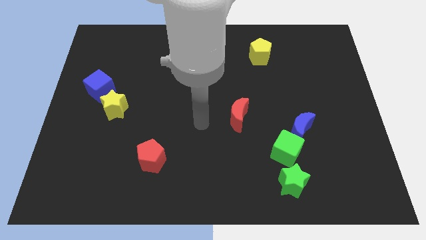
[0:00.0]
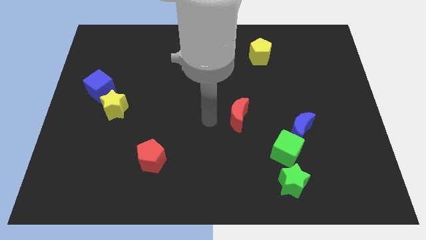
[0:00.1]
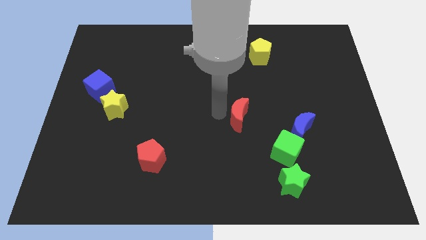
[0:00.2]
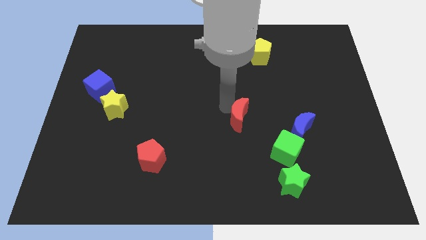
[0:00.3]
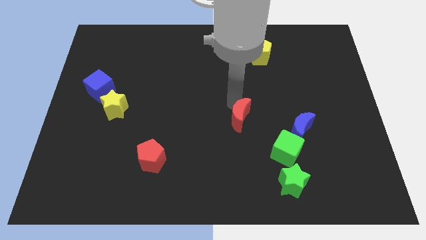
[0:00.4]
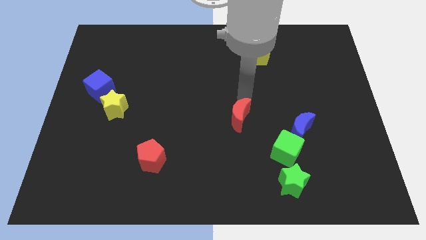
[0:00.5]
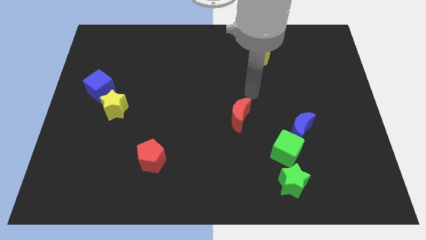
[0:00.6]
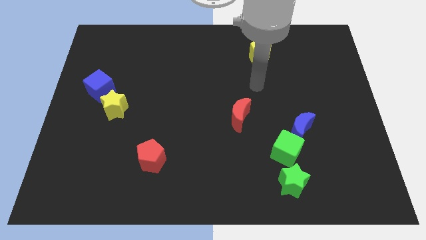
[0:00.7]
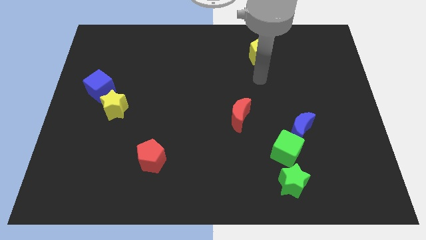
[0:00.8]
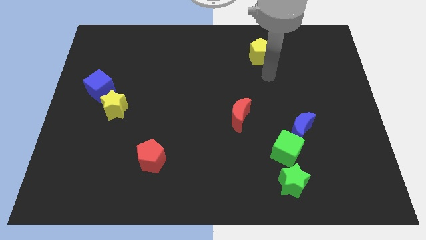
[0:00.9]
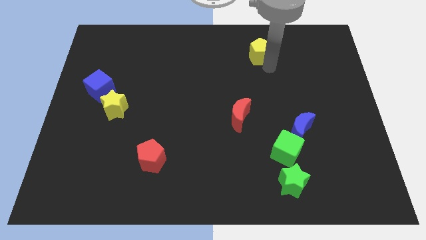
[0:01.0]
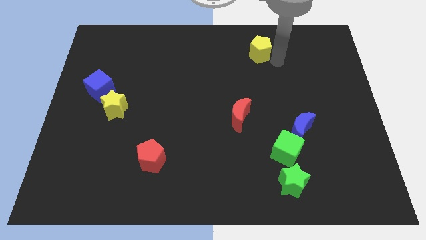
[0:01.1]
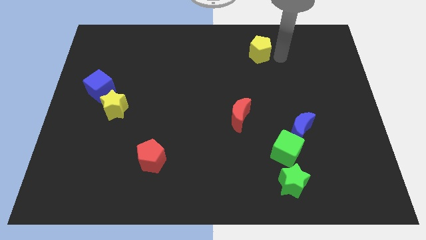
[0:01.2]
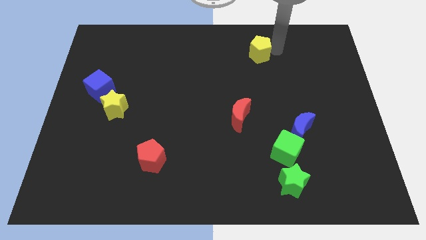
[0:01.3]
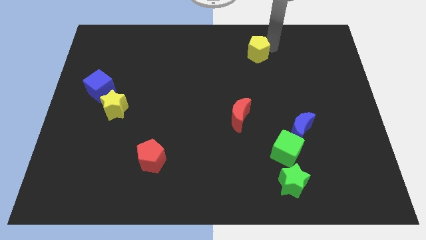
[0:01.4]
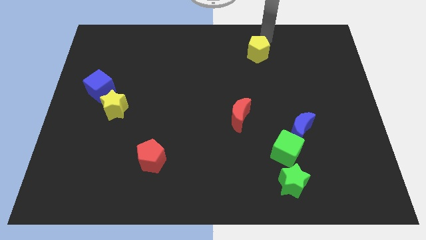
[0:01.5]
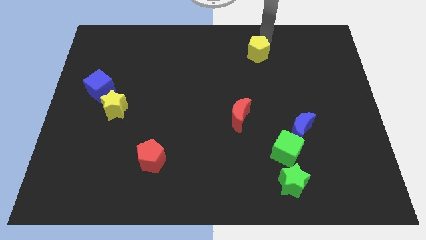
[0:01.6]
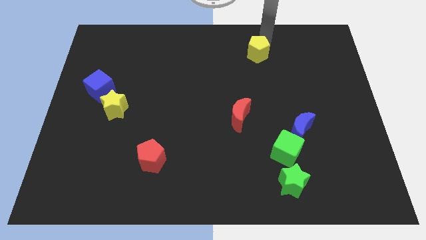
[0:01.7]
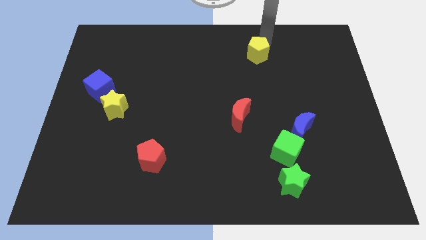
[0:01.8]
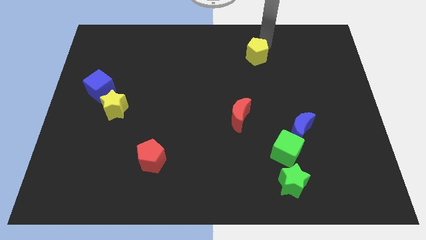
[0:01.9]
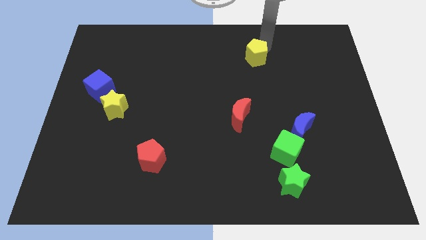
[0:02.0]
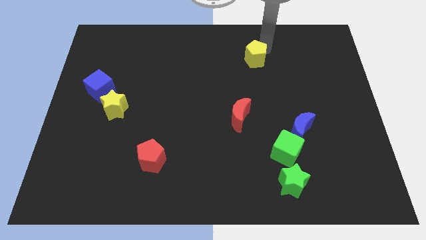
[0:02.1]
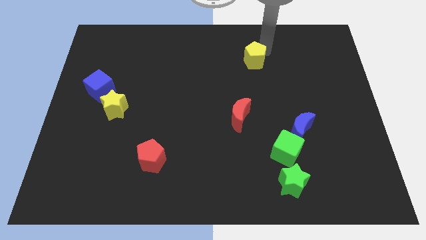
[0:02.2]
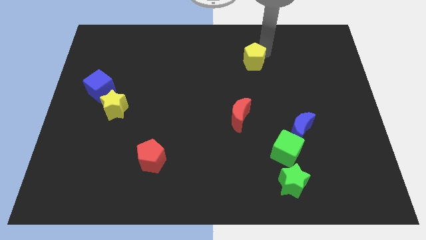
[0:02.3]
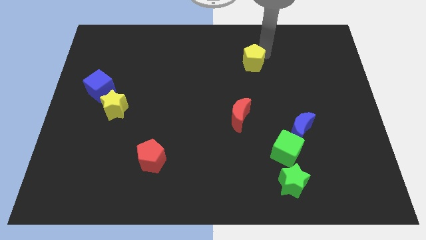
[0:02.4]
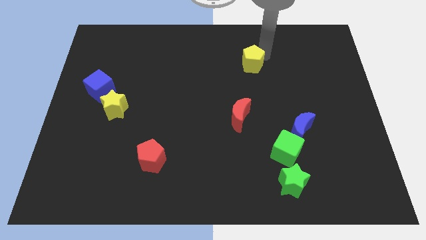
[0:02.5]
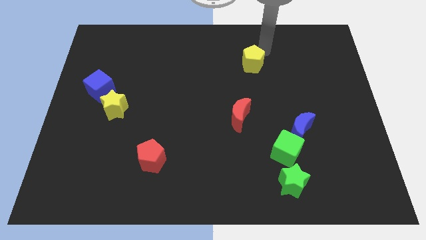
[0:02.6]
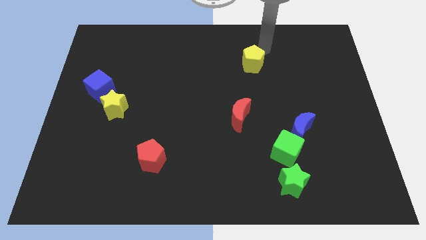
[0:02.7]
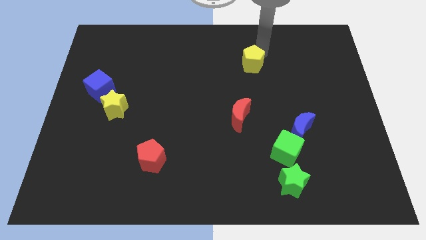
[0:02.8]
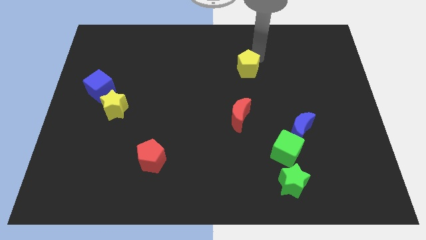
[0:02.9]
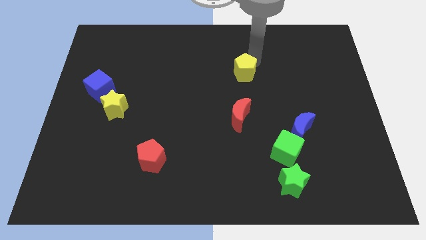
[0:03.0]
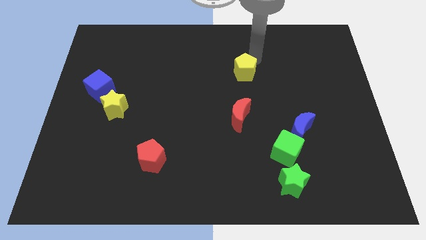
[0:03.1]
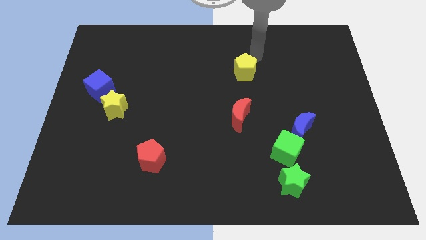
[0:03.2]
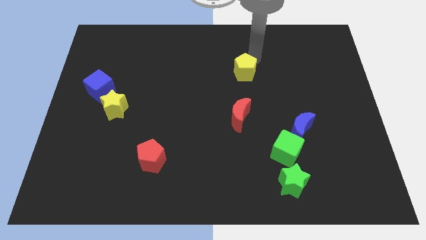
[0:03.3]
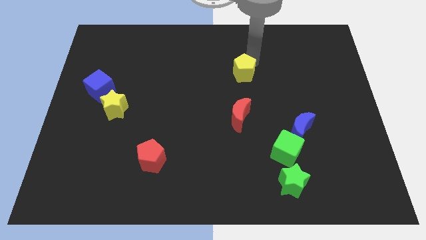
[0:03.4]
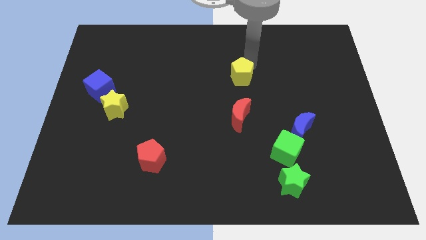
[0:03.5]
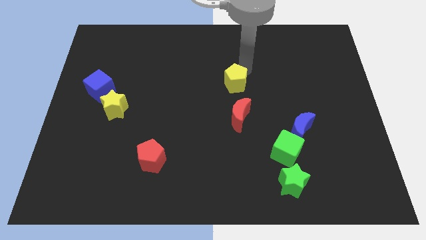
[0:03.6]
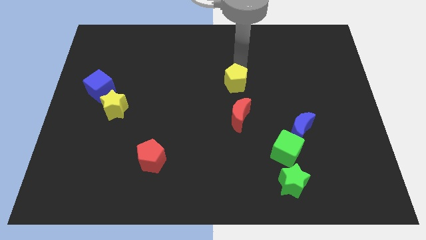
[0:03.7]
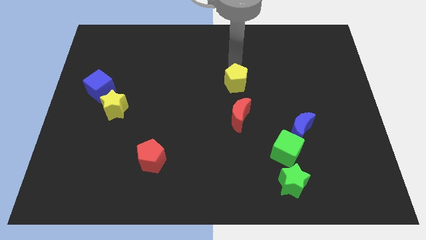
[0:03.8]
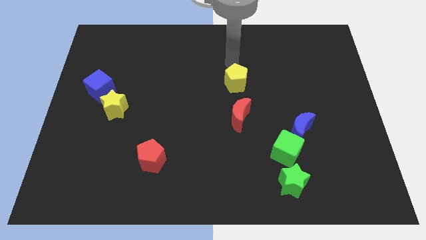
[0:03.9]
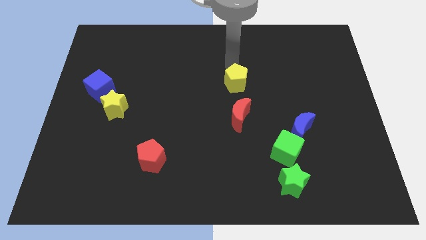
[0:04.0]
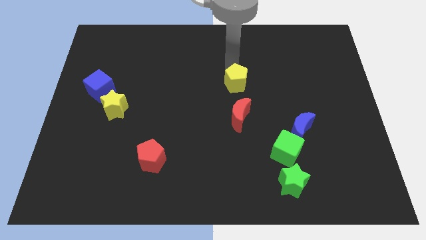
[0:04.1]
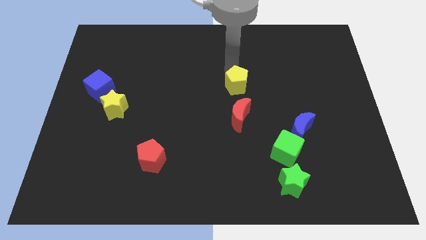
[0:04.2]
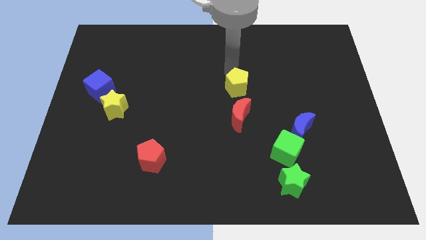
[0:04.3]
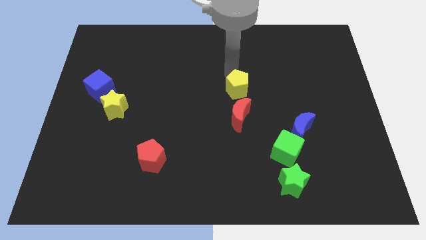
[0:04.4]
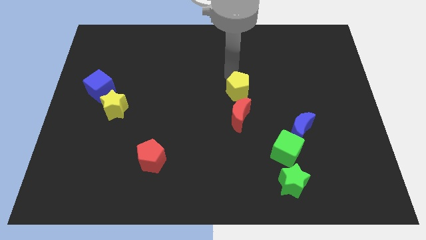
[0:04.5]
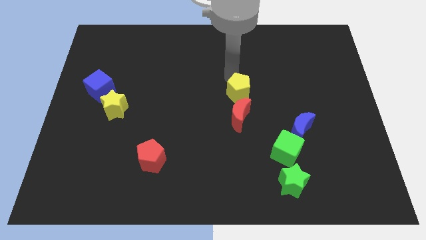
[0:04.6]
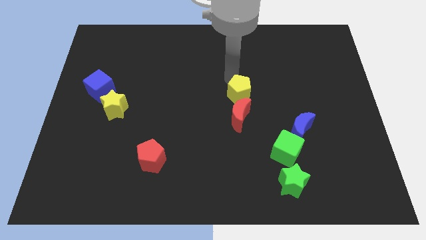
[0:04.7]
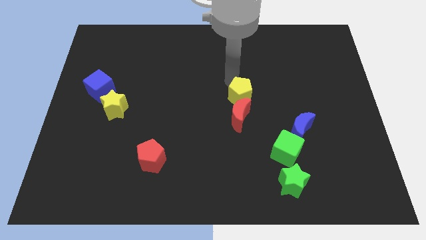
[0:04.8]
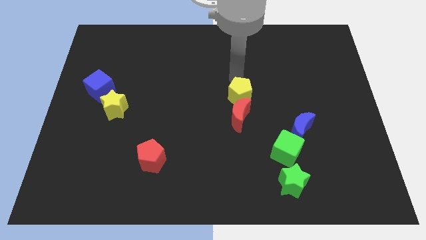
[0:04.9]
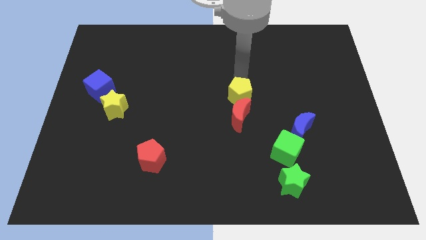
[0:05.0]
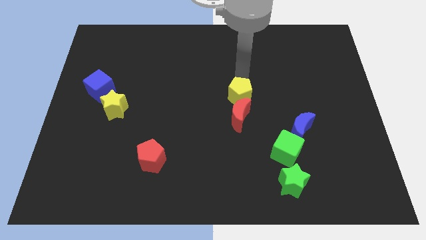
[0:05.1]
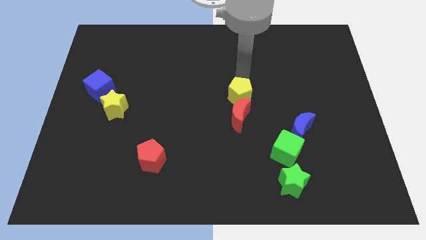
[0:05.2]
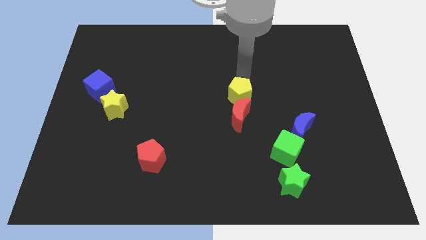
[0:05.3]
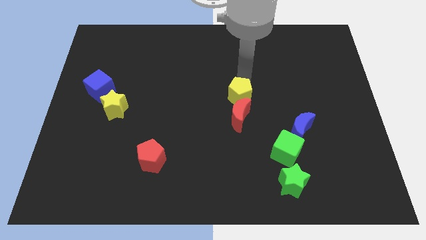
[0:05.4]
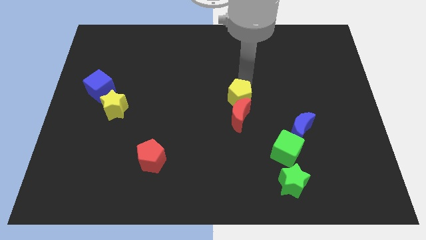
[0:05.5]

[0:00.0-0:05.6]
push the yellow pentagon towards the red moon

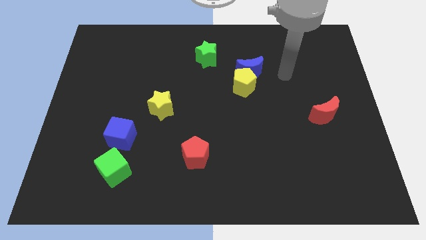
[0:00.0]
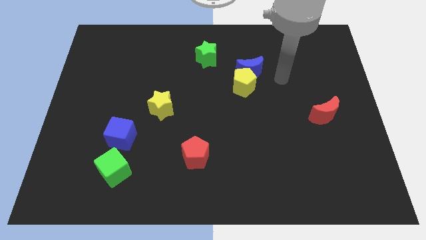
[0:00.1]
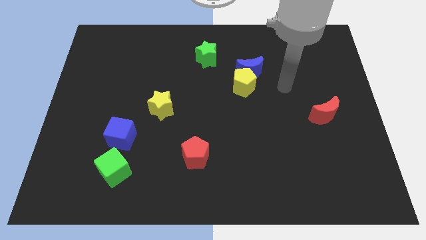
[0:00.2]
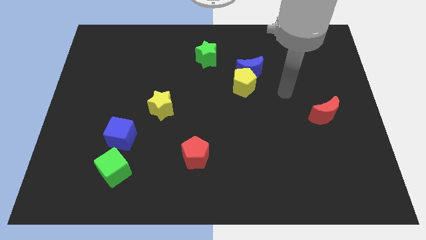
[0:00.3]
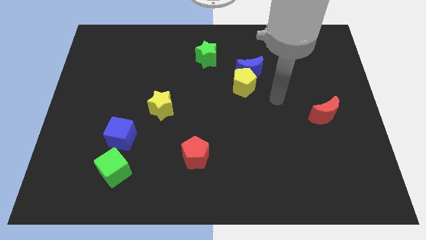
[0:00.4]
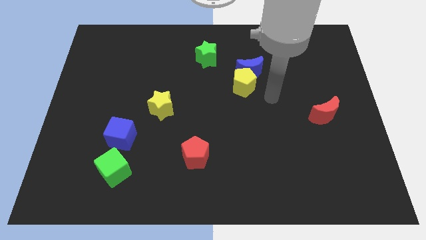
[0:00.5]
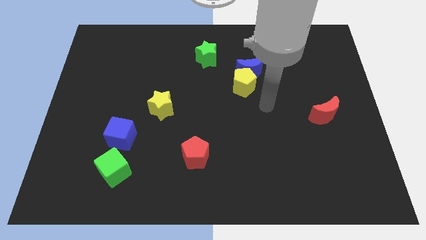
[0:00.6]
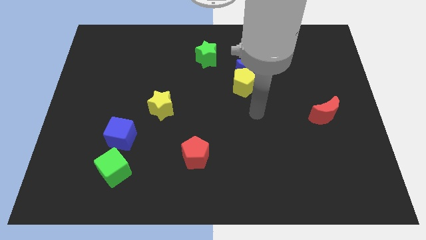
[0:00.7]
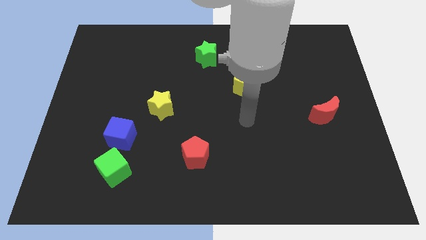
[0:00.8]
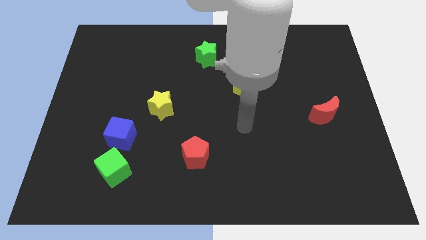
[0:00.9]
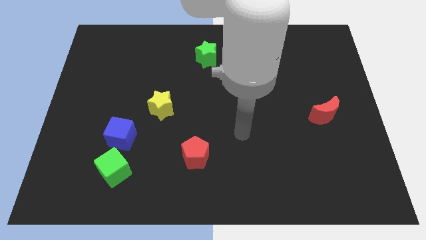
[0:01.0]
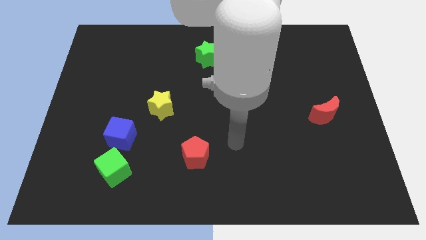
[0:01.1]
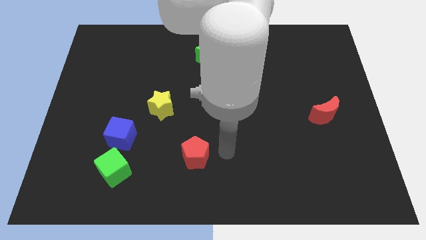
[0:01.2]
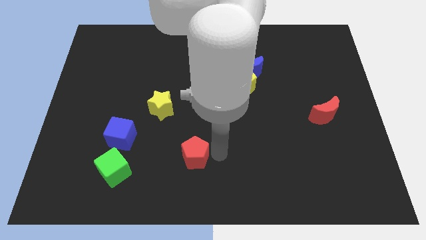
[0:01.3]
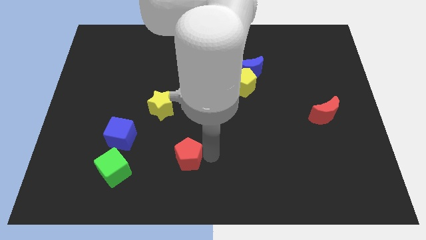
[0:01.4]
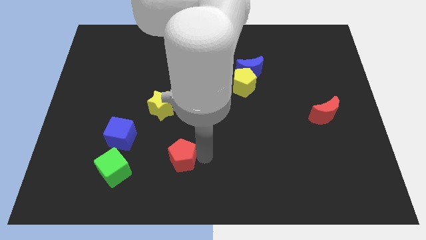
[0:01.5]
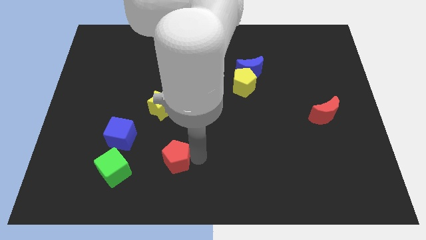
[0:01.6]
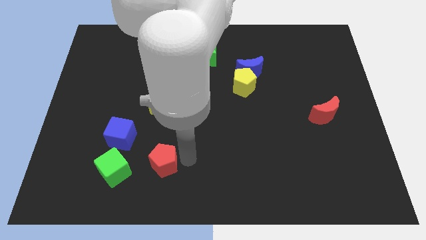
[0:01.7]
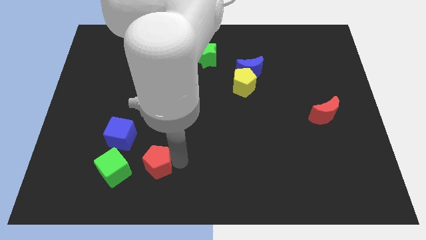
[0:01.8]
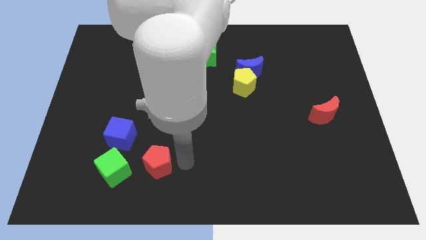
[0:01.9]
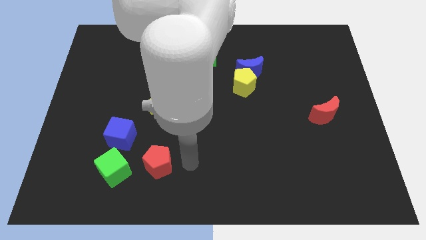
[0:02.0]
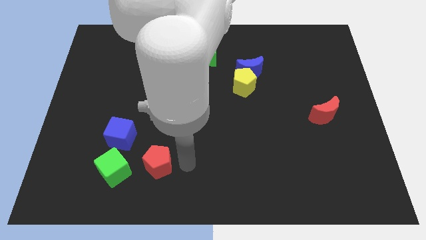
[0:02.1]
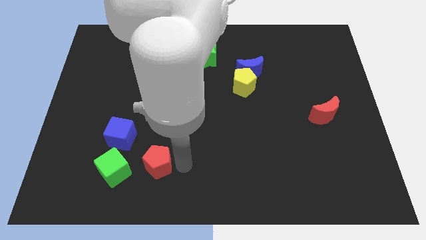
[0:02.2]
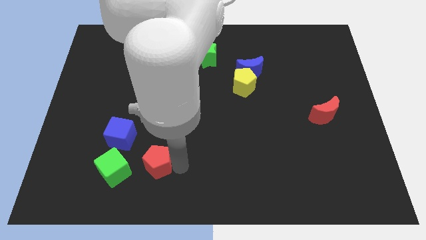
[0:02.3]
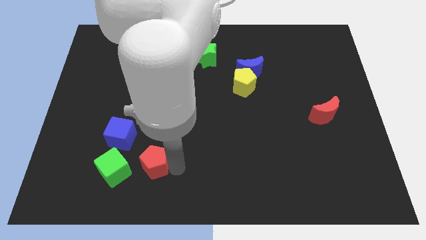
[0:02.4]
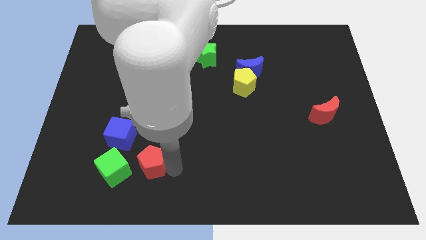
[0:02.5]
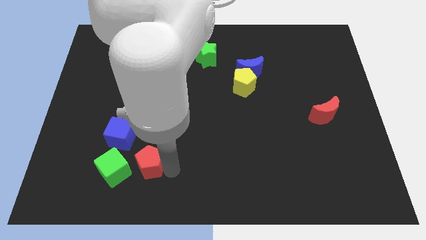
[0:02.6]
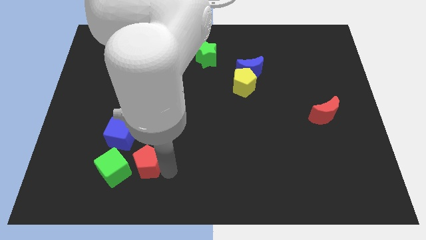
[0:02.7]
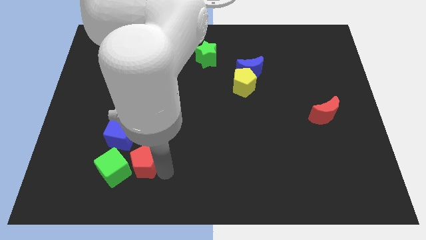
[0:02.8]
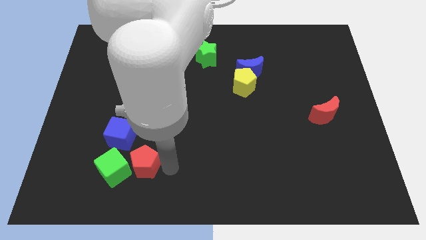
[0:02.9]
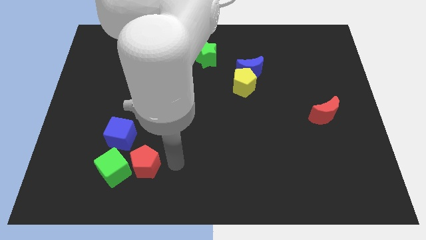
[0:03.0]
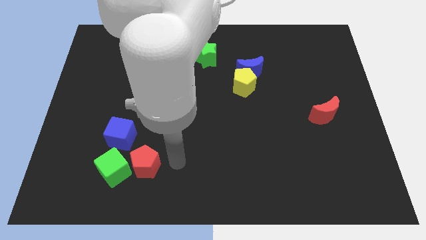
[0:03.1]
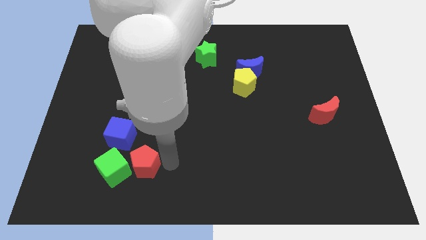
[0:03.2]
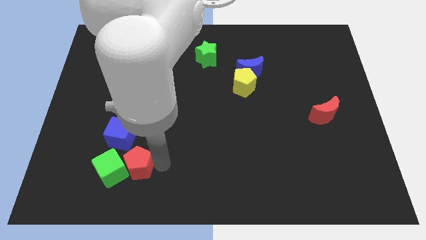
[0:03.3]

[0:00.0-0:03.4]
move the red pentagon close to the green cube
